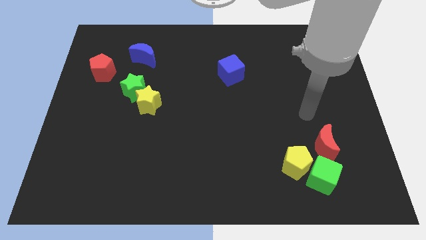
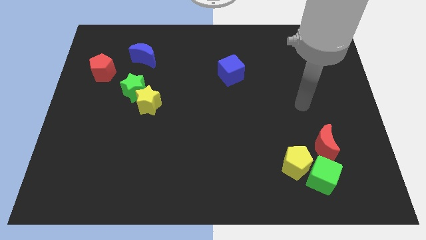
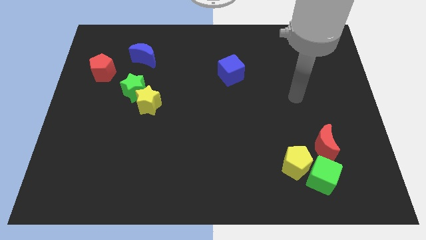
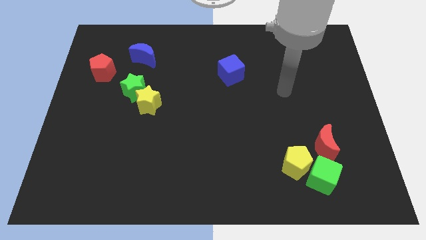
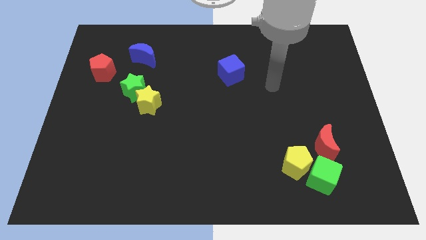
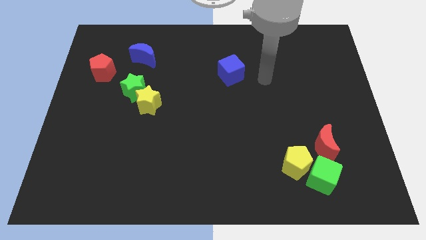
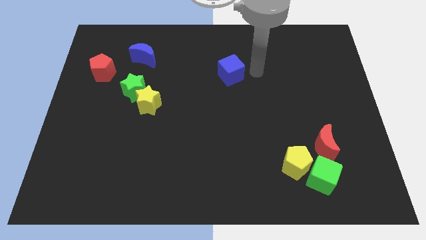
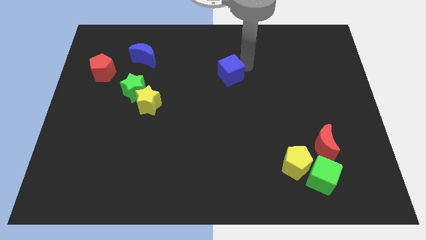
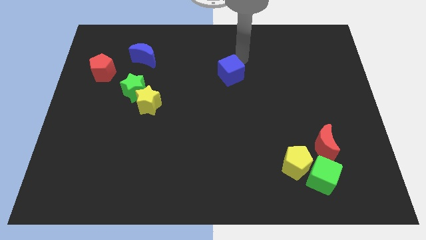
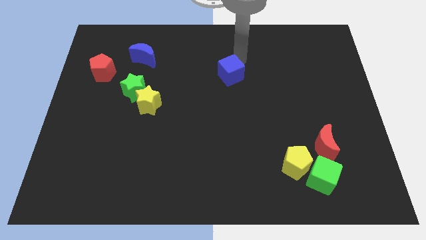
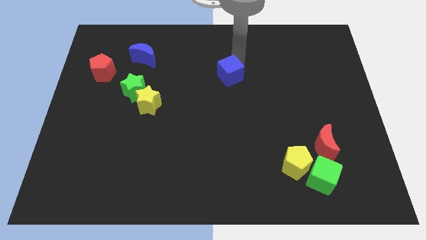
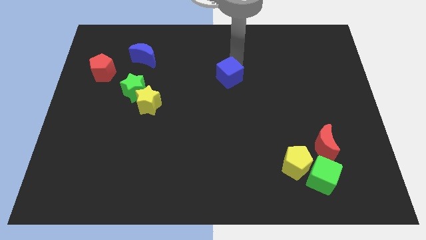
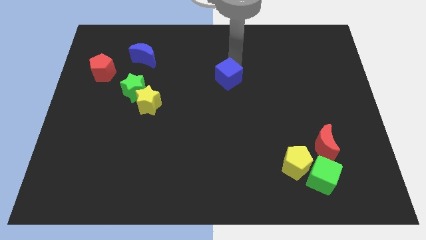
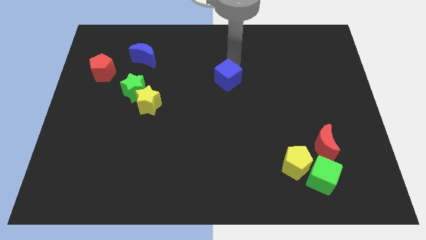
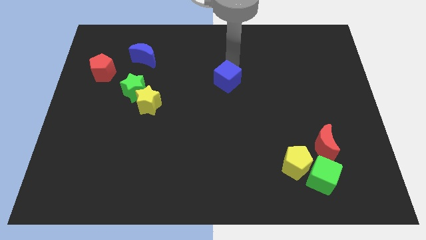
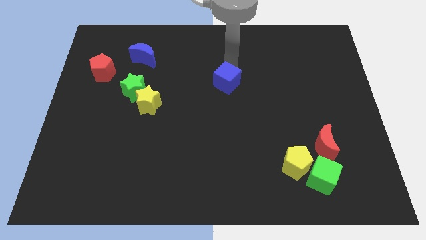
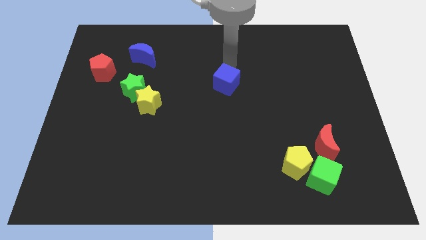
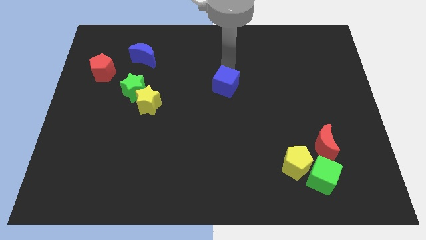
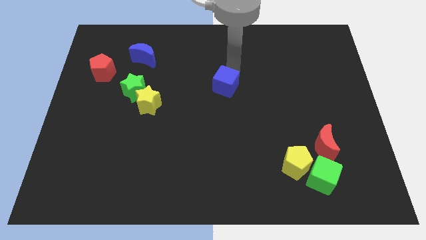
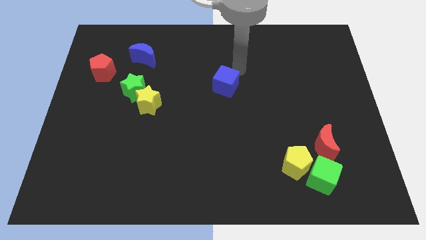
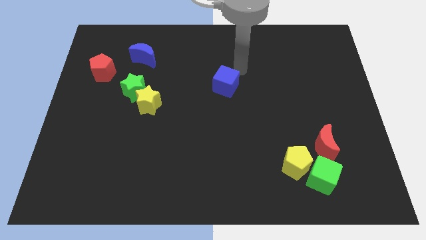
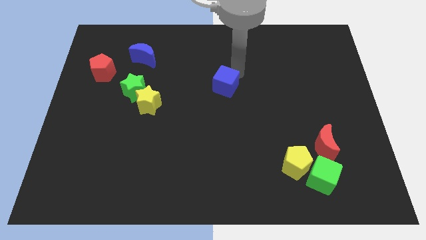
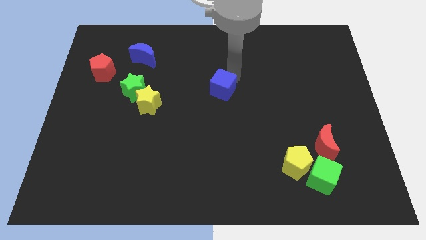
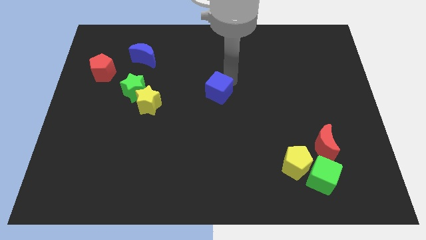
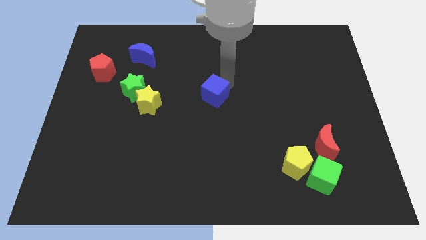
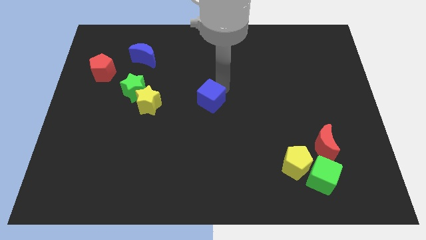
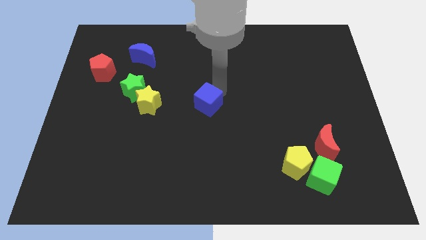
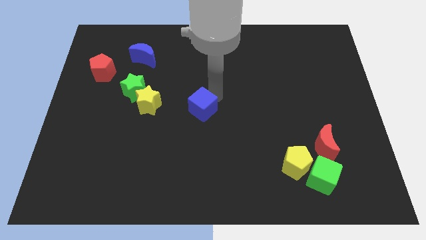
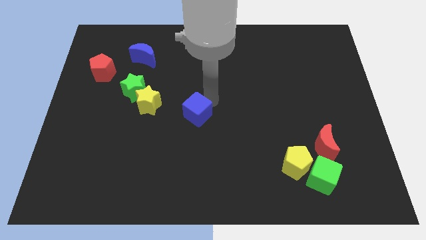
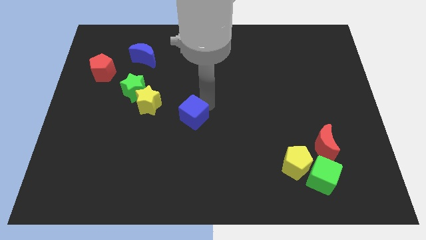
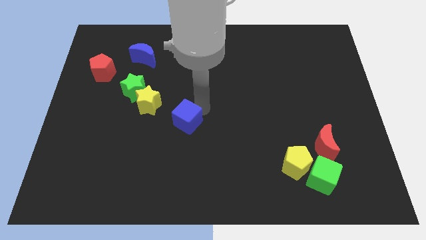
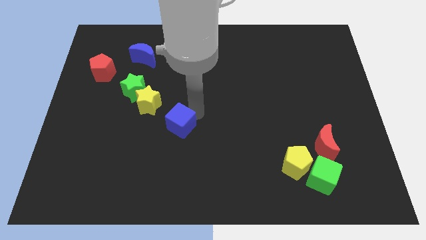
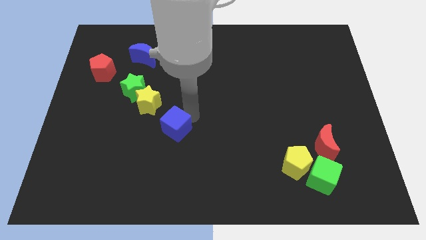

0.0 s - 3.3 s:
push the blue cube diagonally downwards and left

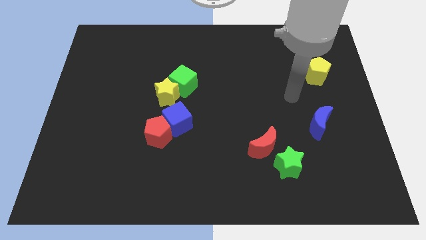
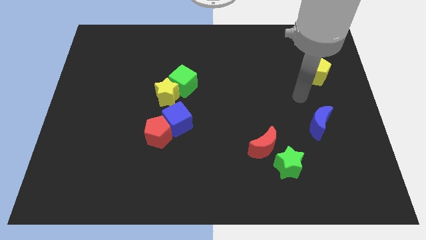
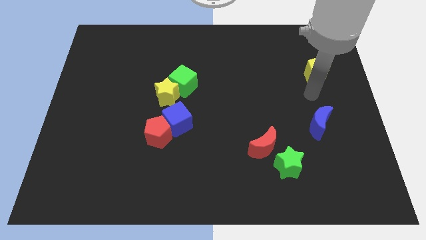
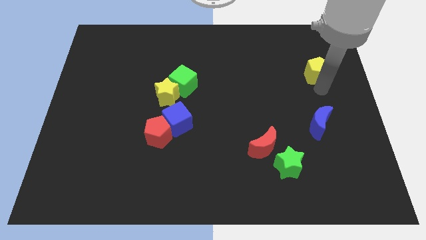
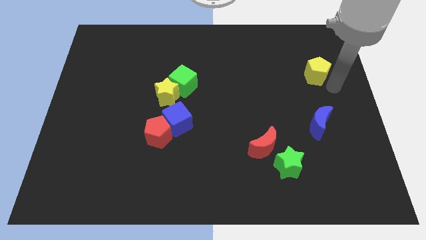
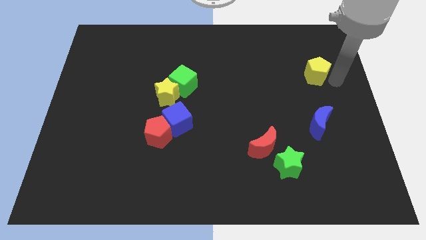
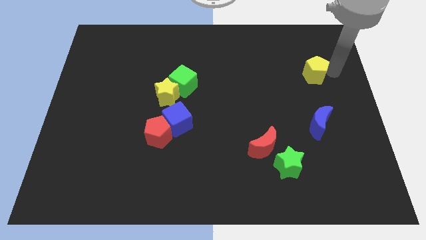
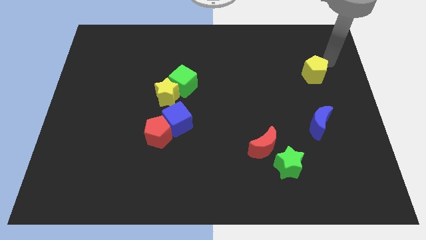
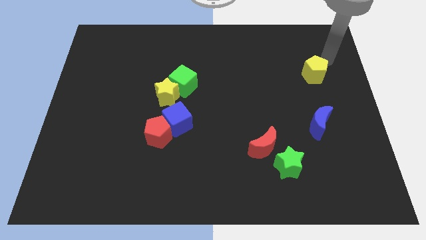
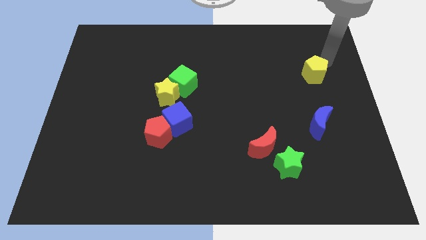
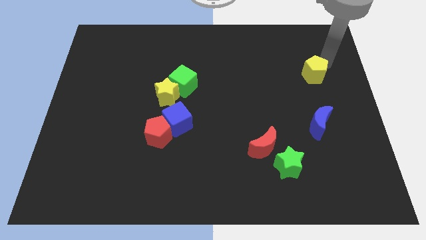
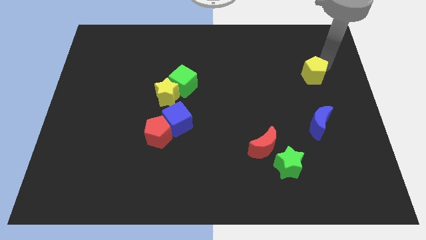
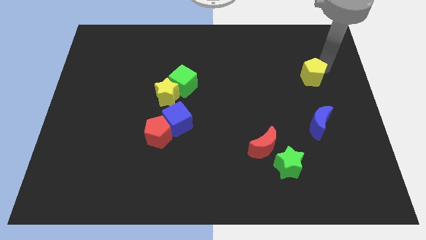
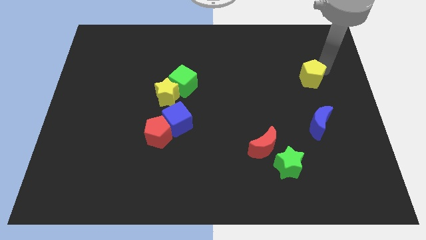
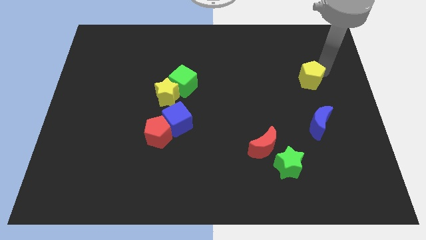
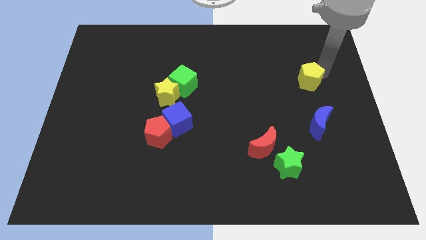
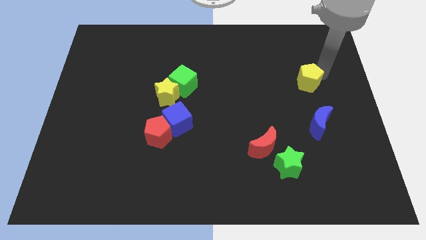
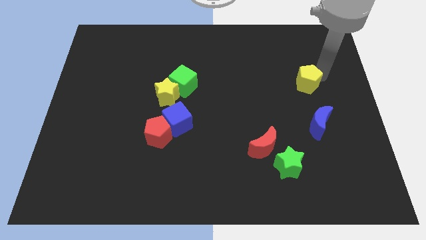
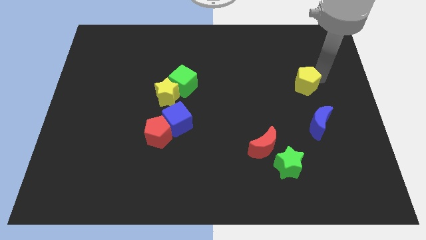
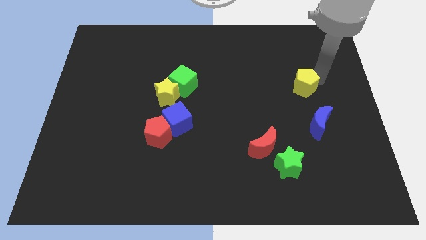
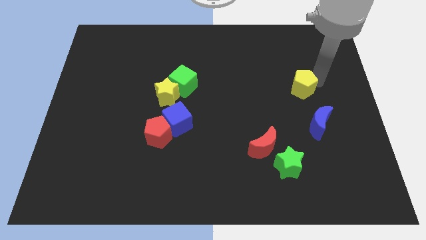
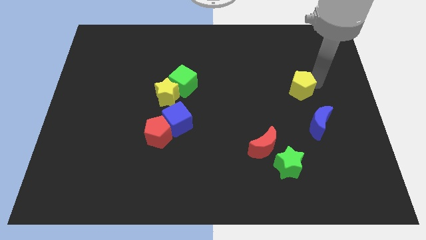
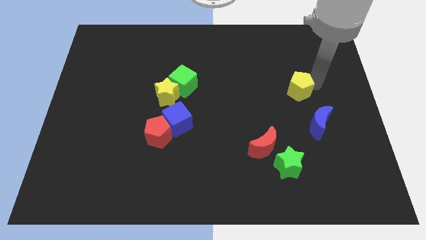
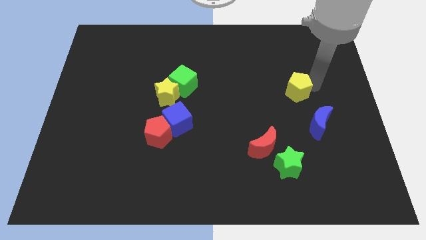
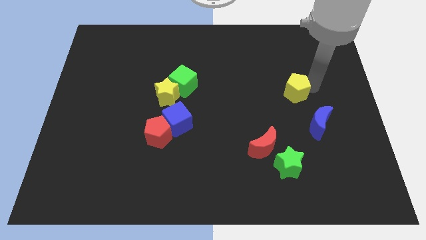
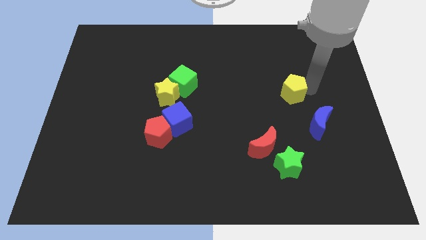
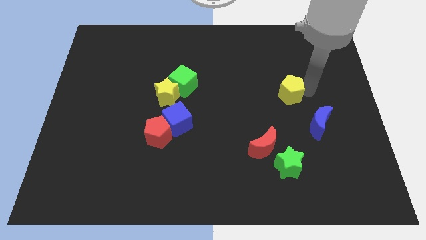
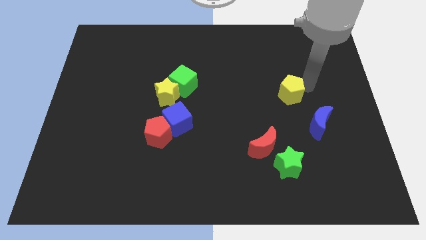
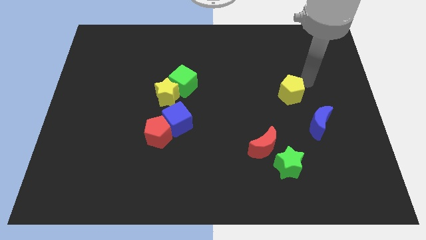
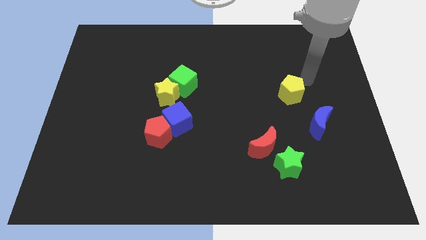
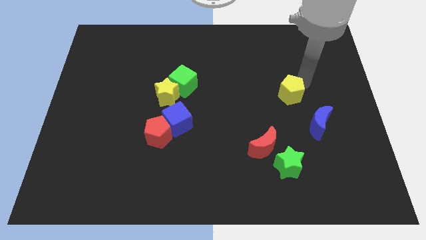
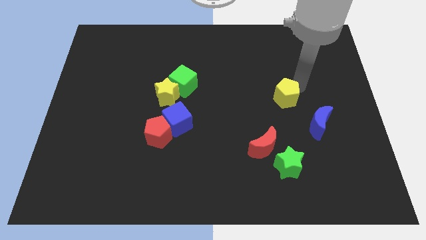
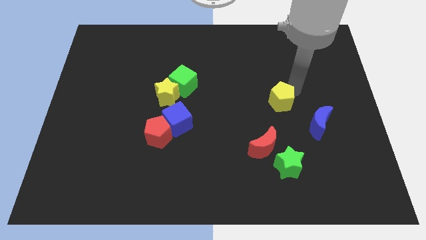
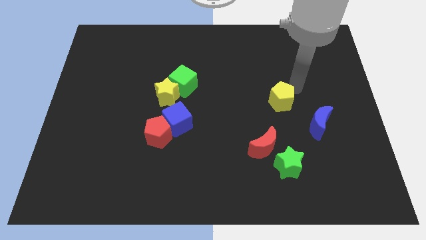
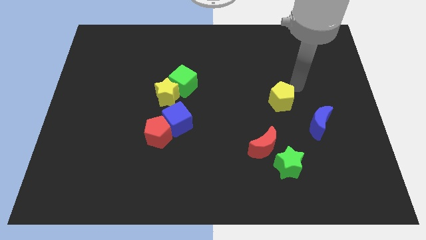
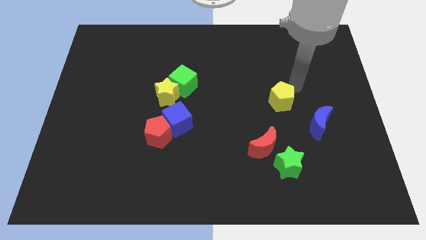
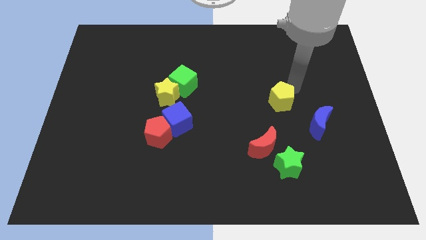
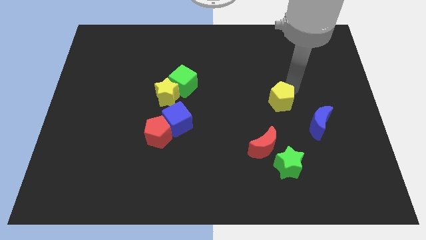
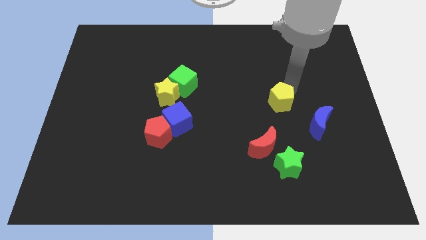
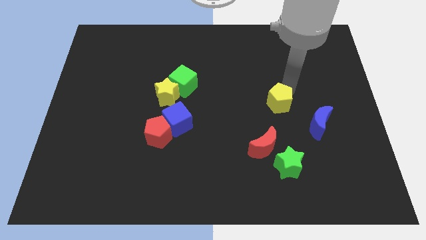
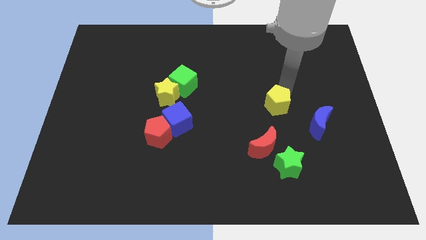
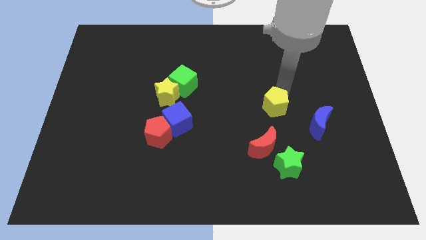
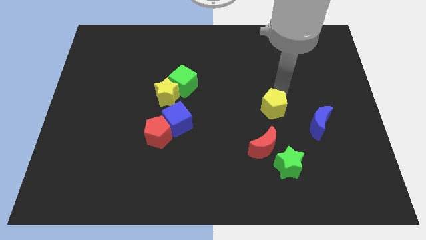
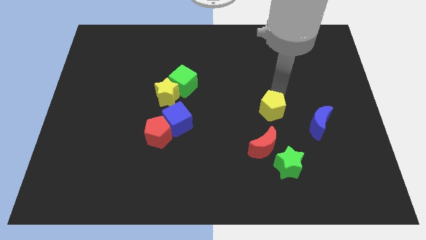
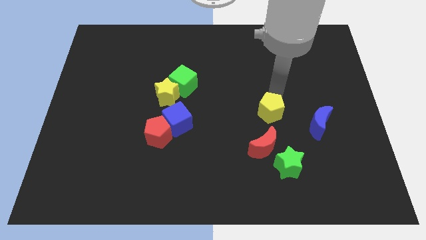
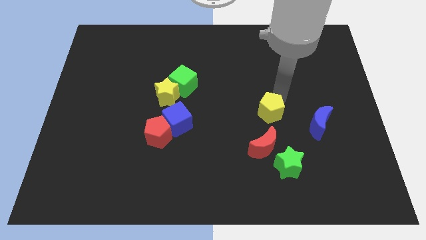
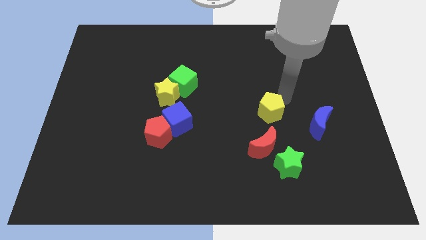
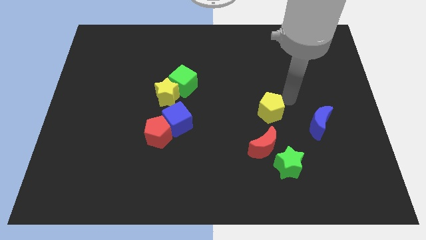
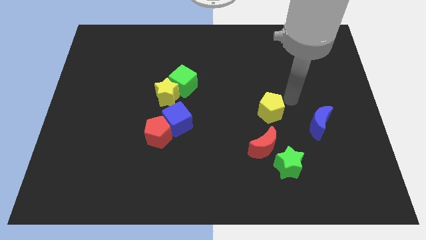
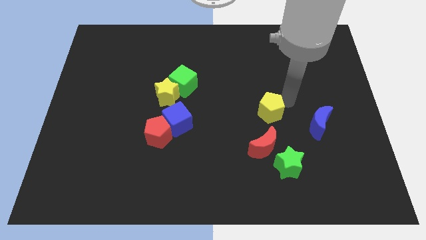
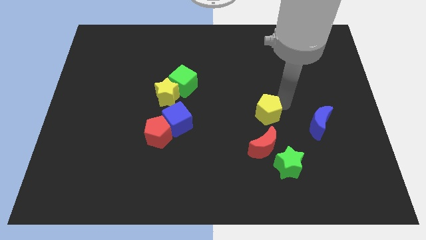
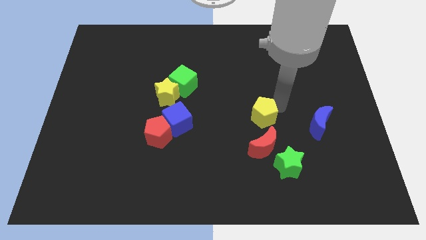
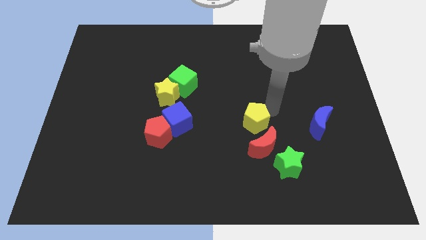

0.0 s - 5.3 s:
push the yellow pentagon downwards and to the left
